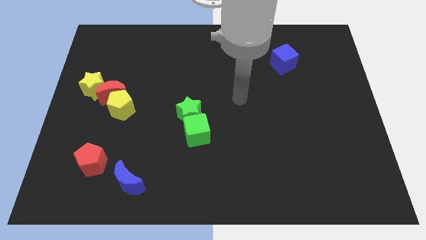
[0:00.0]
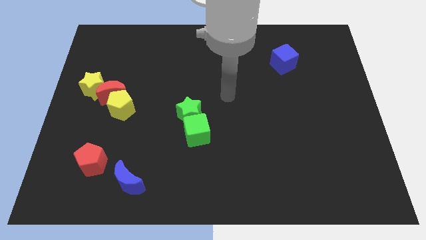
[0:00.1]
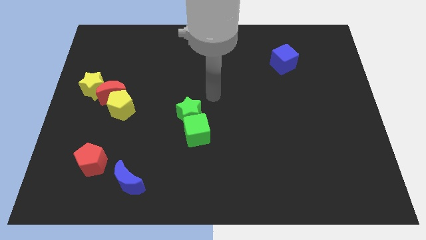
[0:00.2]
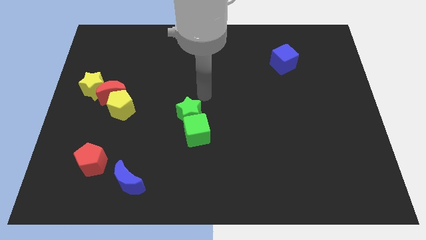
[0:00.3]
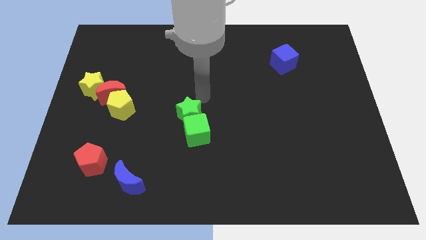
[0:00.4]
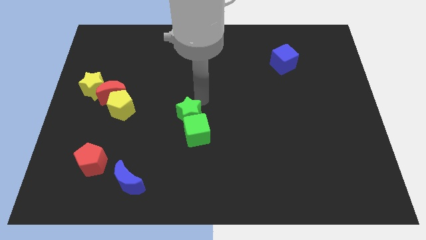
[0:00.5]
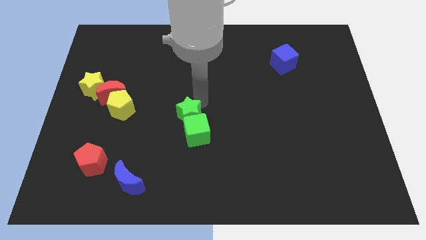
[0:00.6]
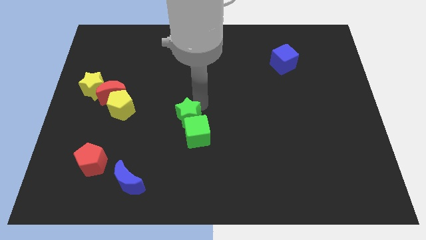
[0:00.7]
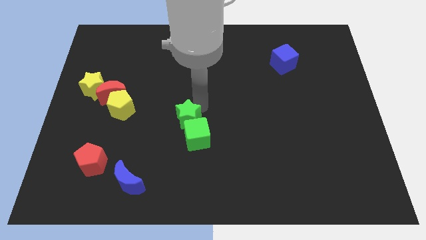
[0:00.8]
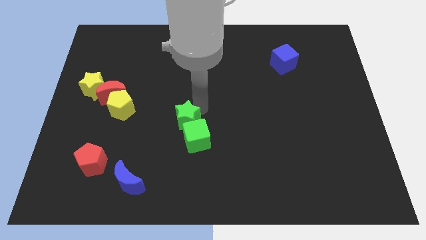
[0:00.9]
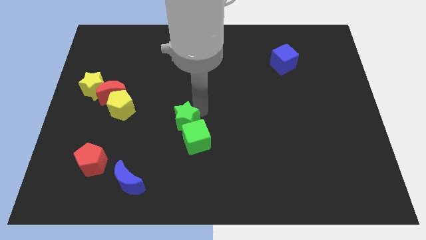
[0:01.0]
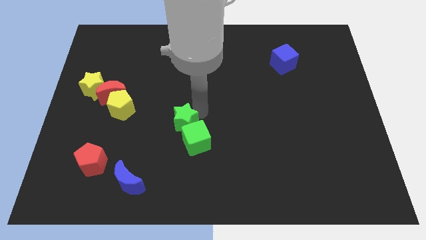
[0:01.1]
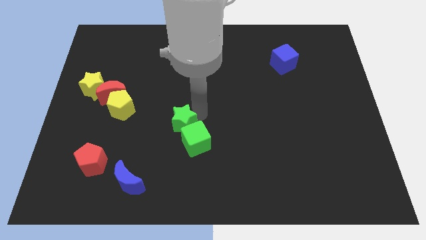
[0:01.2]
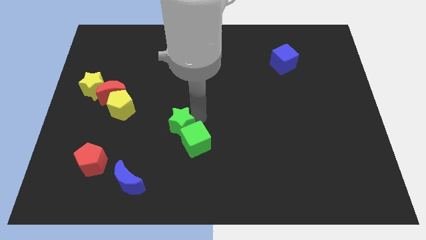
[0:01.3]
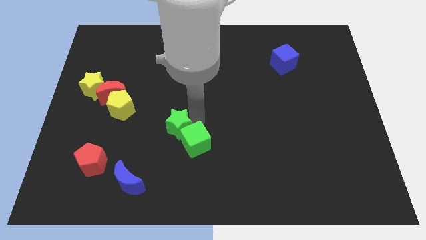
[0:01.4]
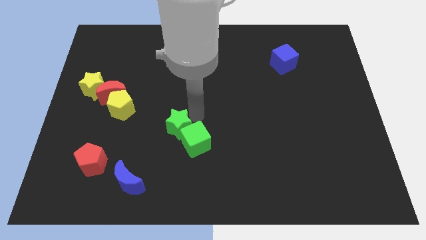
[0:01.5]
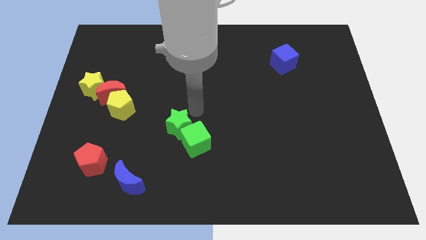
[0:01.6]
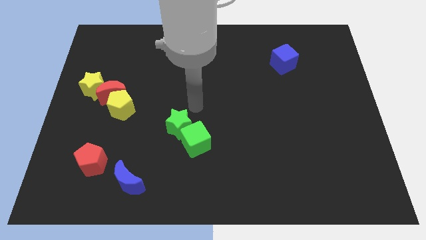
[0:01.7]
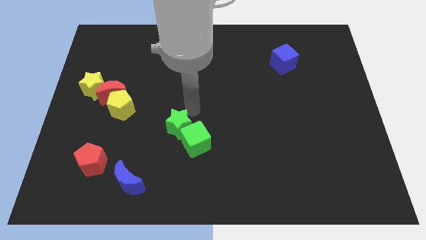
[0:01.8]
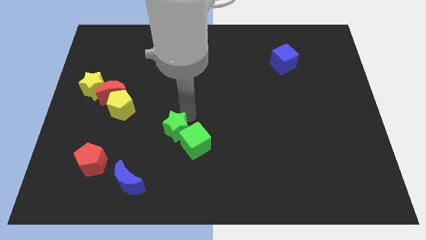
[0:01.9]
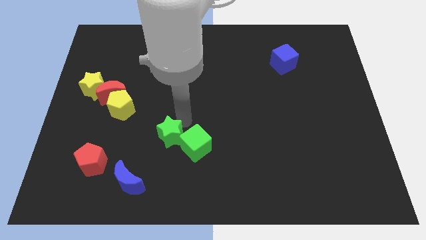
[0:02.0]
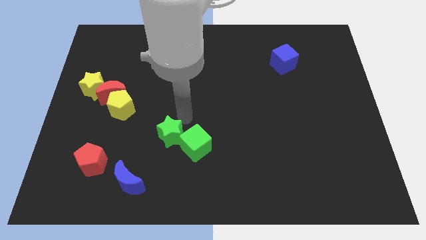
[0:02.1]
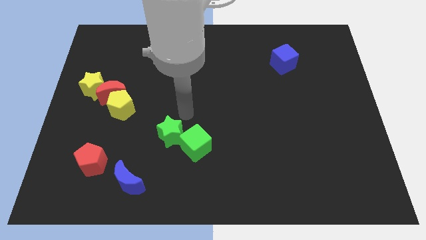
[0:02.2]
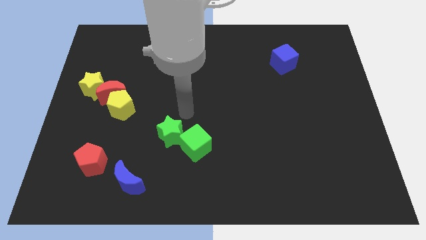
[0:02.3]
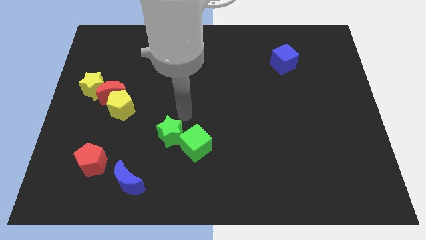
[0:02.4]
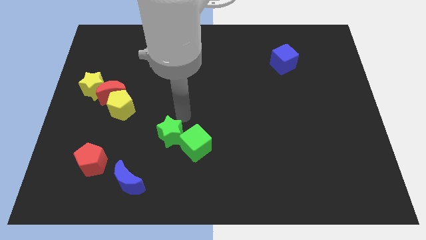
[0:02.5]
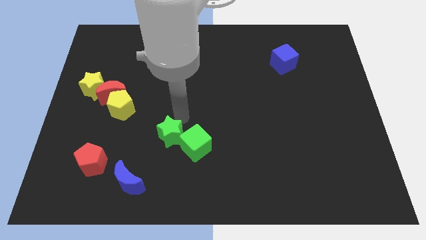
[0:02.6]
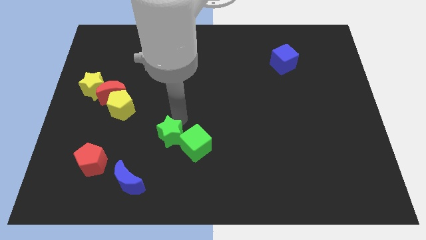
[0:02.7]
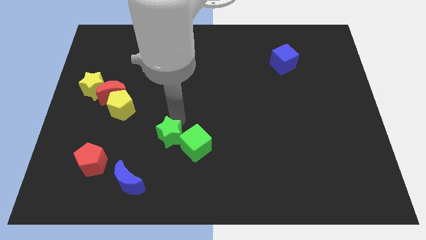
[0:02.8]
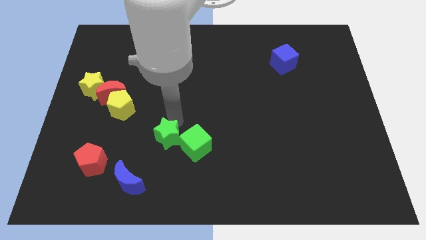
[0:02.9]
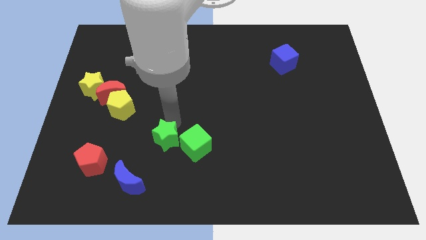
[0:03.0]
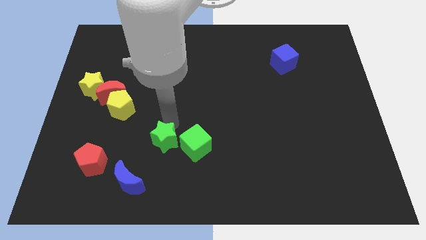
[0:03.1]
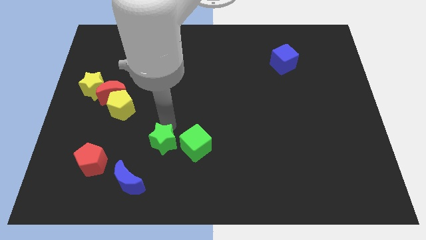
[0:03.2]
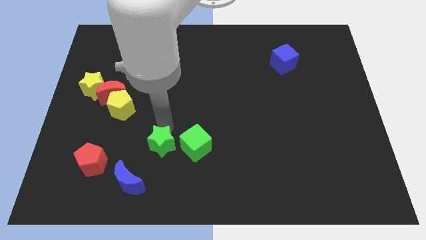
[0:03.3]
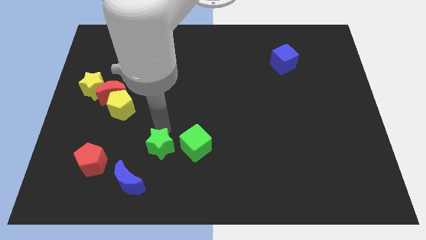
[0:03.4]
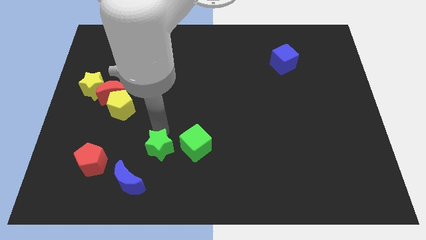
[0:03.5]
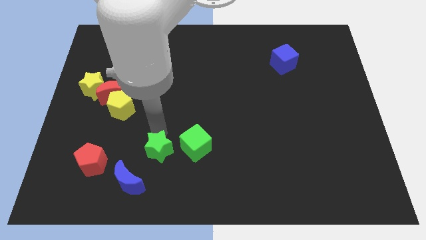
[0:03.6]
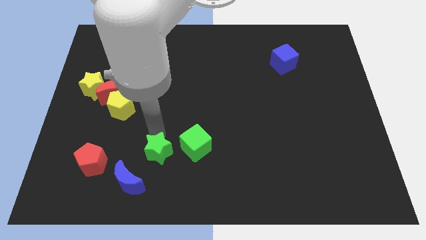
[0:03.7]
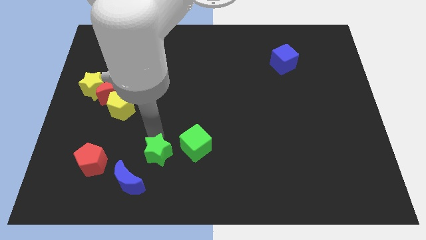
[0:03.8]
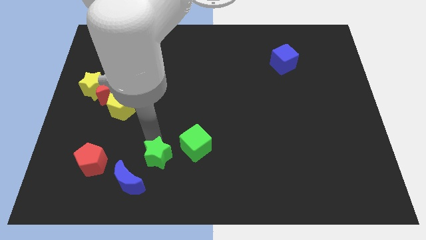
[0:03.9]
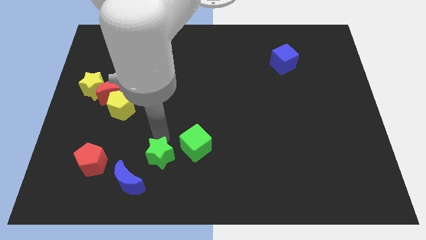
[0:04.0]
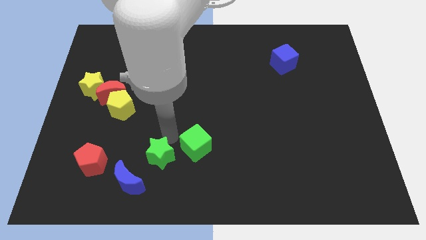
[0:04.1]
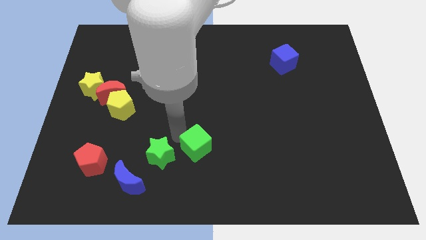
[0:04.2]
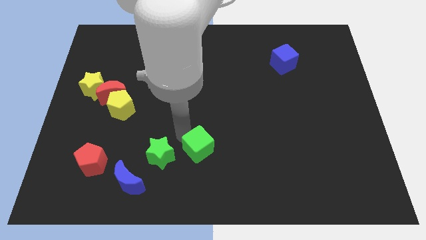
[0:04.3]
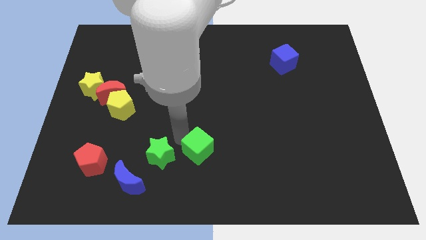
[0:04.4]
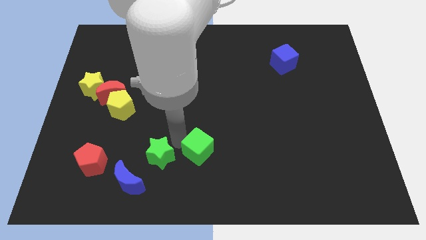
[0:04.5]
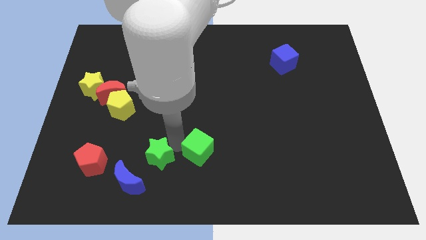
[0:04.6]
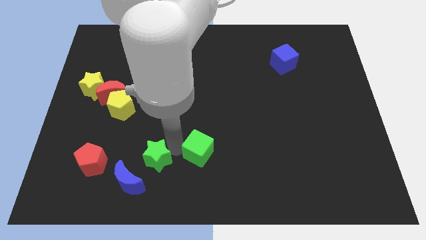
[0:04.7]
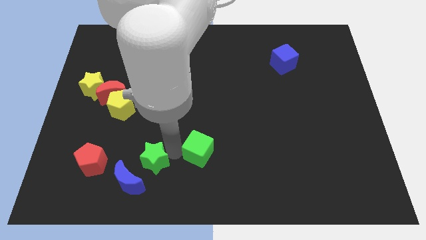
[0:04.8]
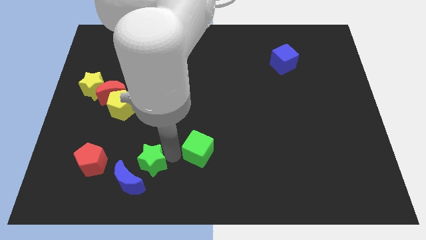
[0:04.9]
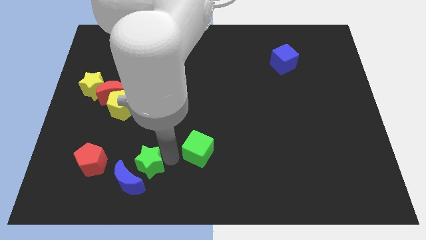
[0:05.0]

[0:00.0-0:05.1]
push the green star next to the blue moon

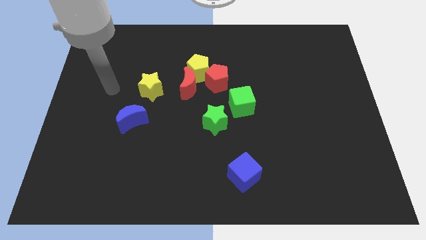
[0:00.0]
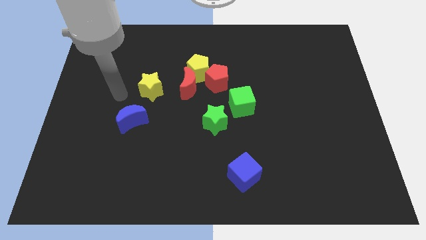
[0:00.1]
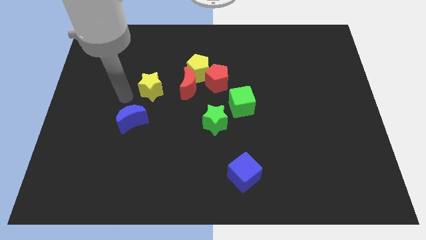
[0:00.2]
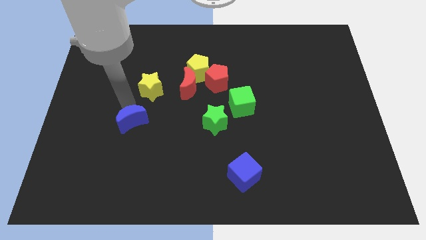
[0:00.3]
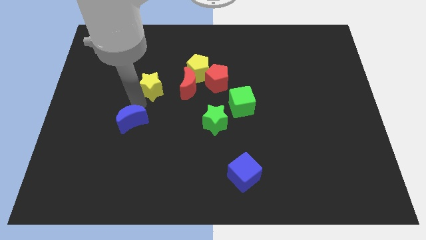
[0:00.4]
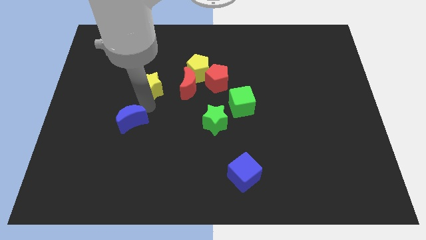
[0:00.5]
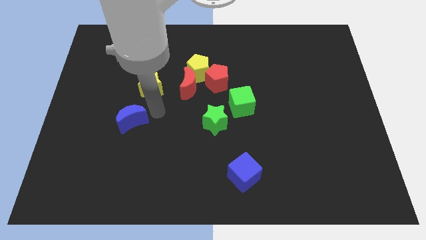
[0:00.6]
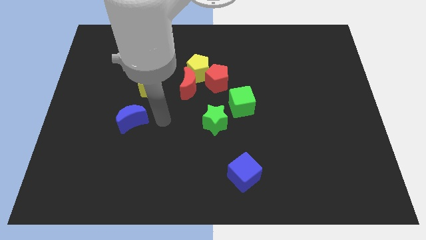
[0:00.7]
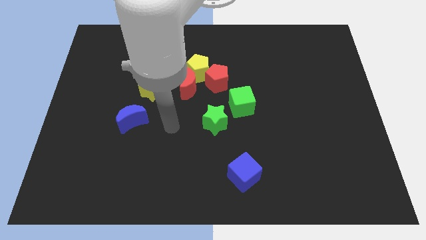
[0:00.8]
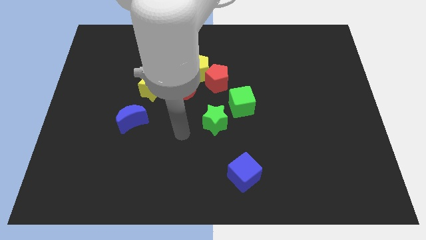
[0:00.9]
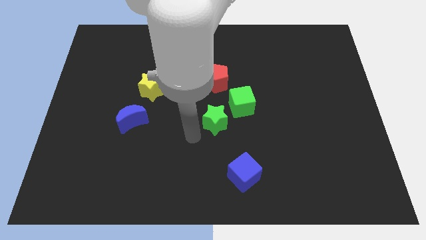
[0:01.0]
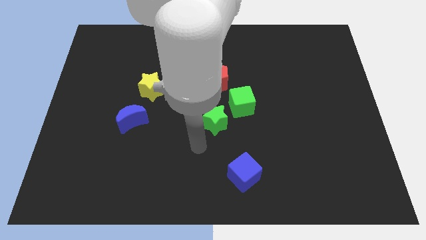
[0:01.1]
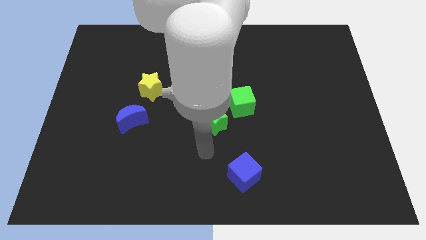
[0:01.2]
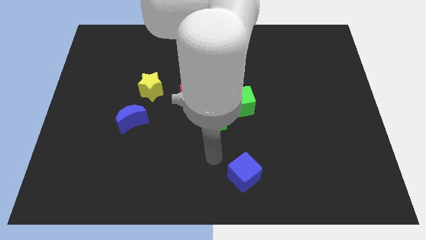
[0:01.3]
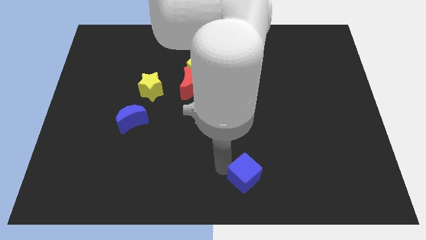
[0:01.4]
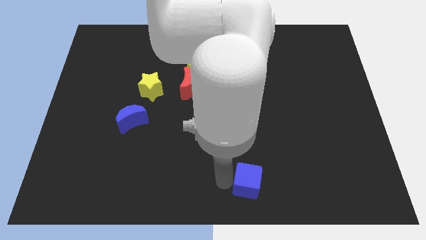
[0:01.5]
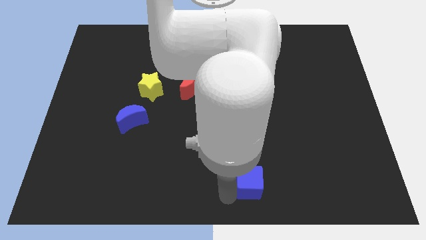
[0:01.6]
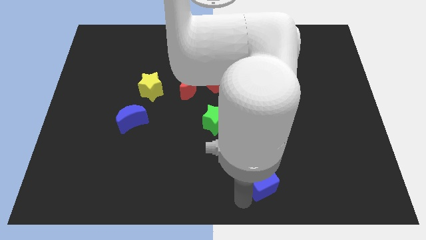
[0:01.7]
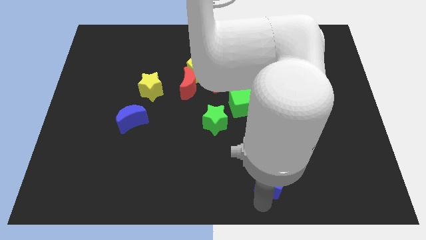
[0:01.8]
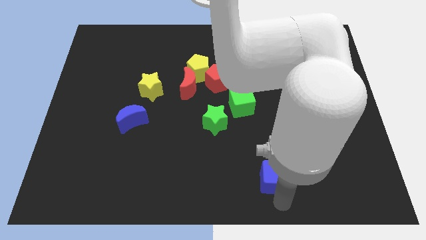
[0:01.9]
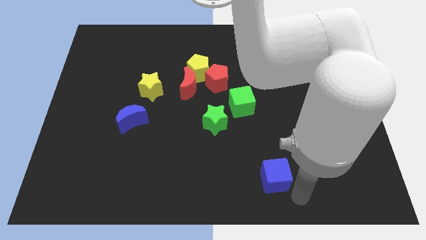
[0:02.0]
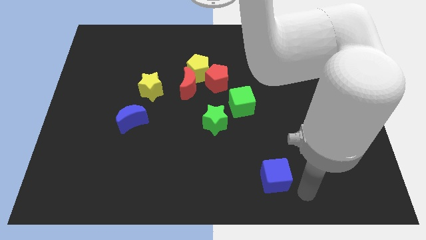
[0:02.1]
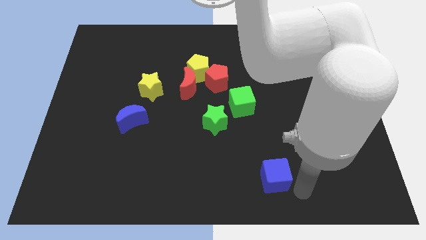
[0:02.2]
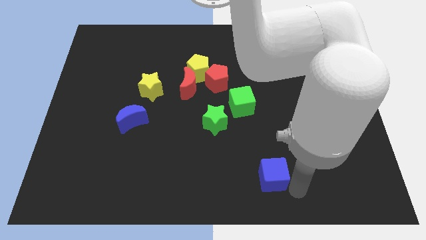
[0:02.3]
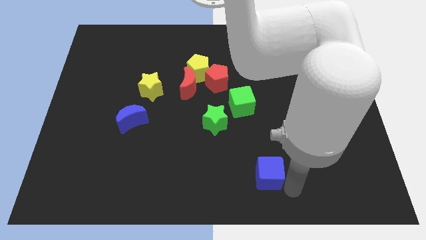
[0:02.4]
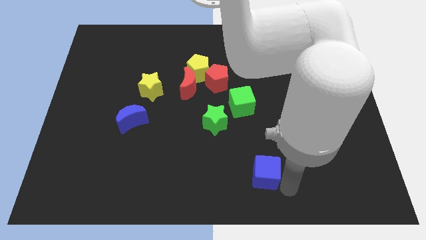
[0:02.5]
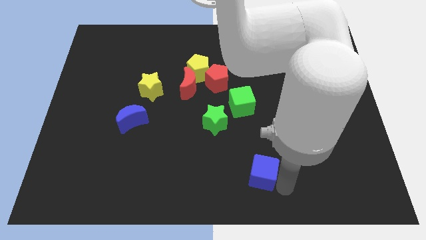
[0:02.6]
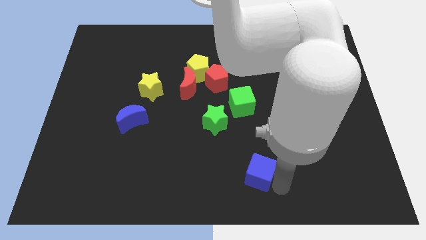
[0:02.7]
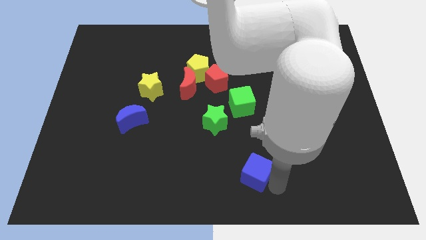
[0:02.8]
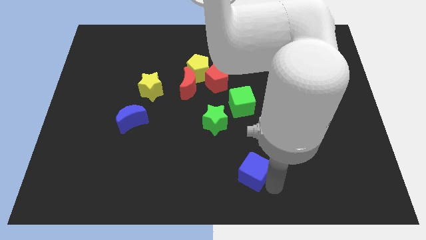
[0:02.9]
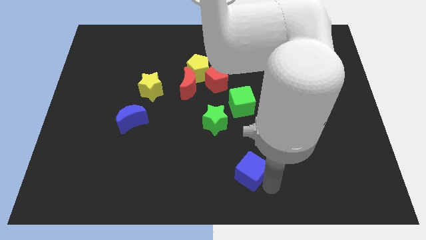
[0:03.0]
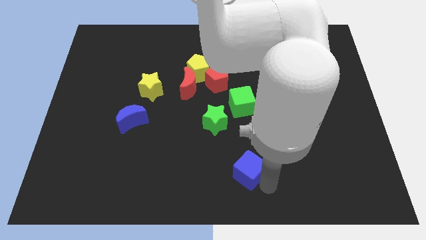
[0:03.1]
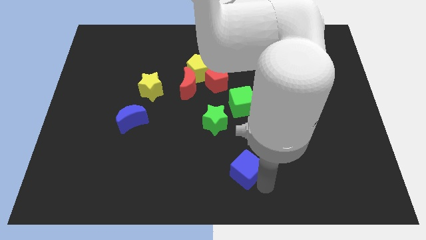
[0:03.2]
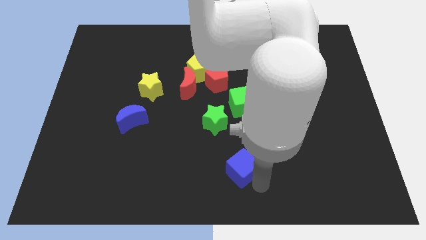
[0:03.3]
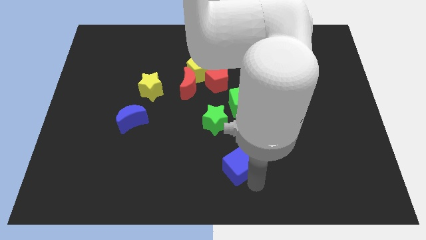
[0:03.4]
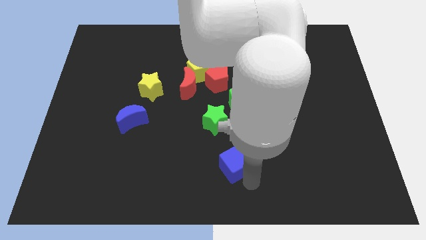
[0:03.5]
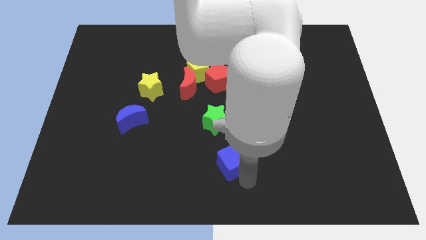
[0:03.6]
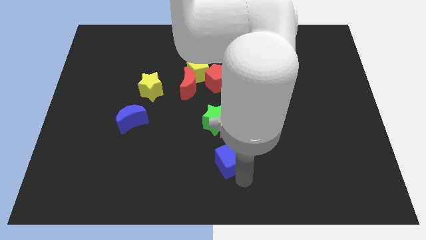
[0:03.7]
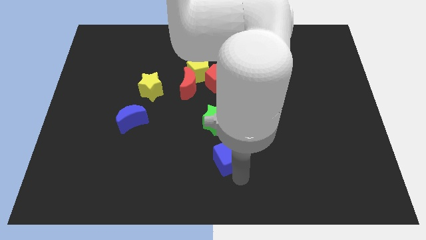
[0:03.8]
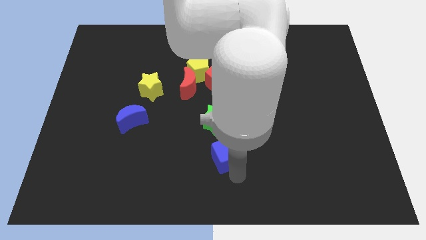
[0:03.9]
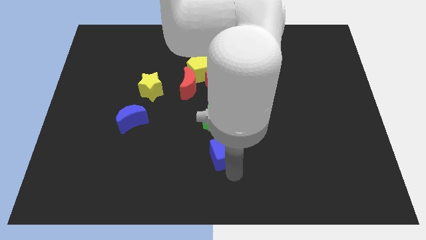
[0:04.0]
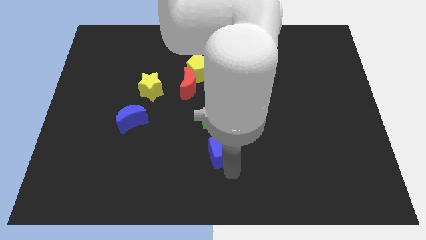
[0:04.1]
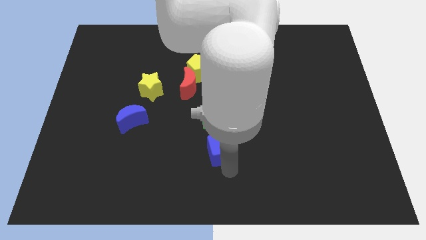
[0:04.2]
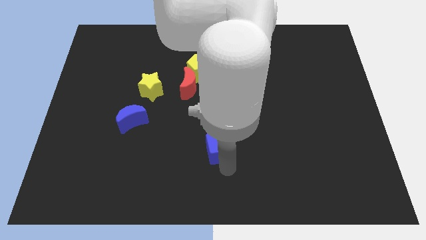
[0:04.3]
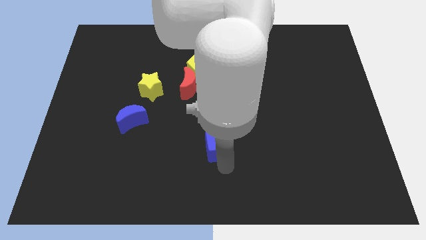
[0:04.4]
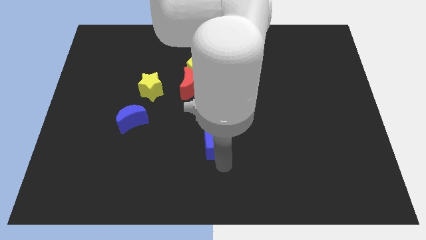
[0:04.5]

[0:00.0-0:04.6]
push the blue cube next to the green star
